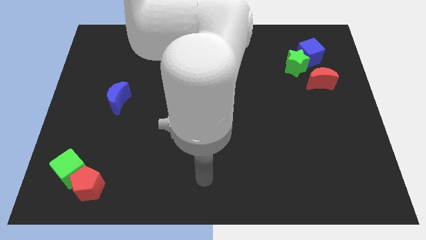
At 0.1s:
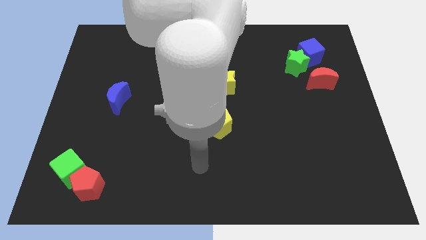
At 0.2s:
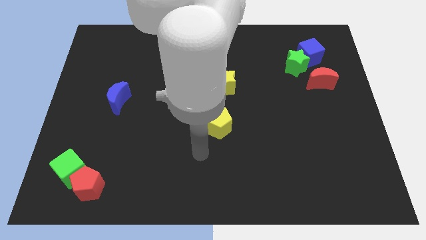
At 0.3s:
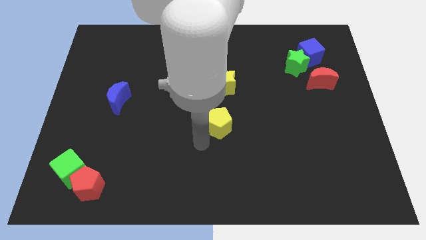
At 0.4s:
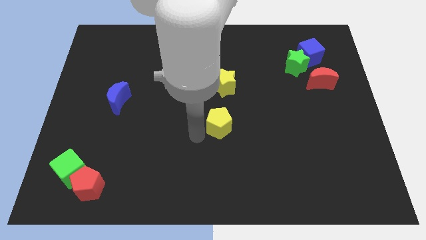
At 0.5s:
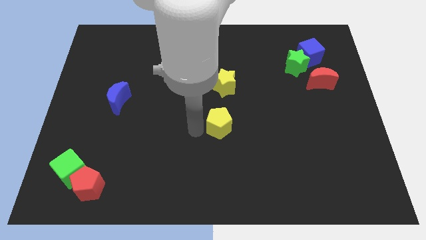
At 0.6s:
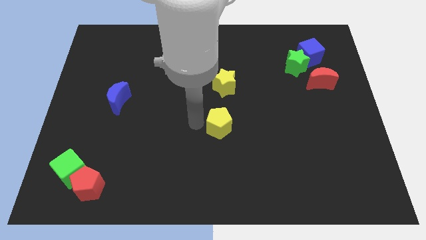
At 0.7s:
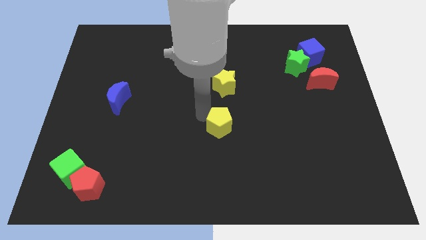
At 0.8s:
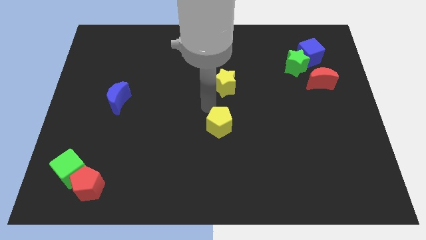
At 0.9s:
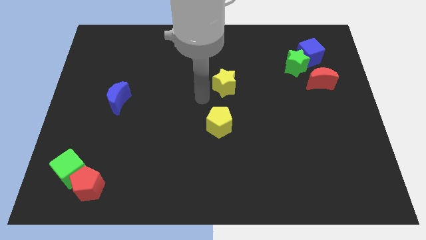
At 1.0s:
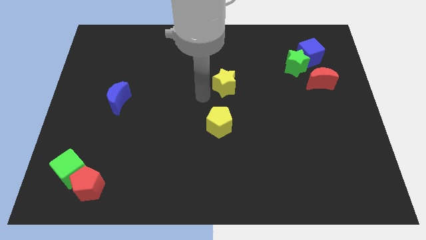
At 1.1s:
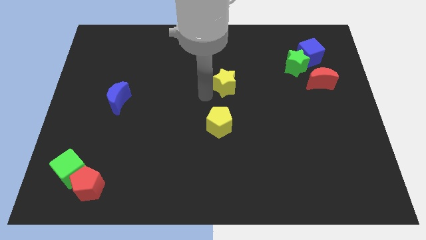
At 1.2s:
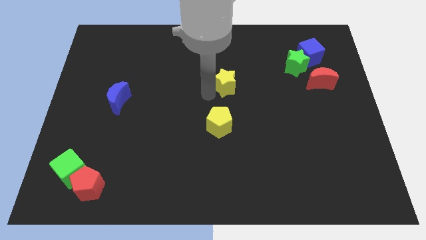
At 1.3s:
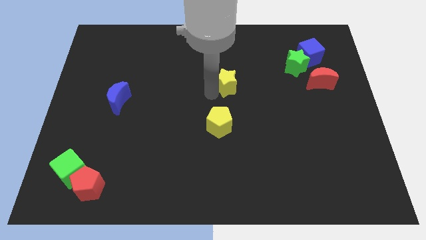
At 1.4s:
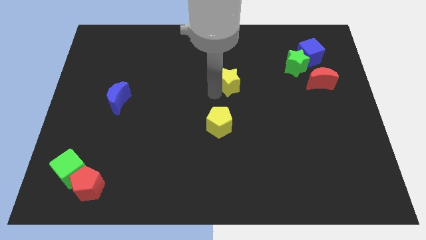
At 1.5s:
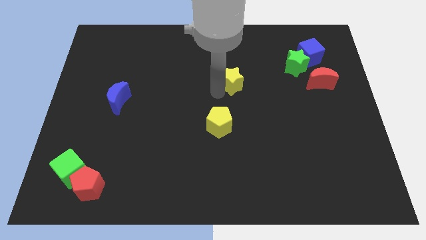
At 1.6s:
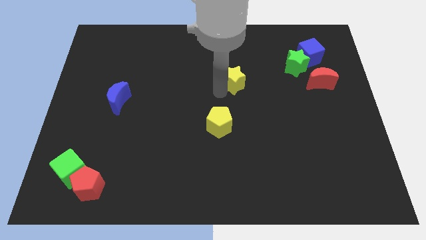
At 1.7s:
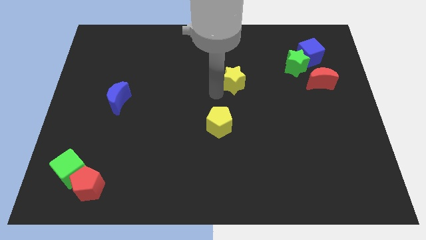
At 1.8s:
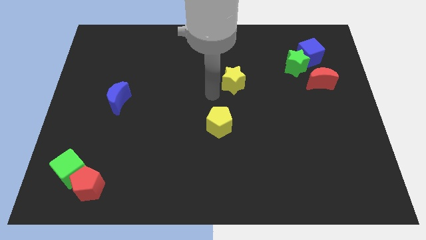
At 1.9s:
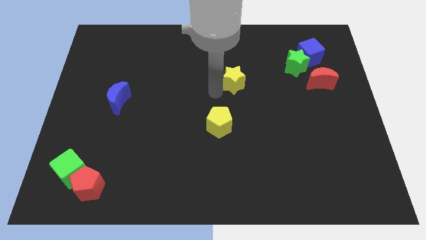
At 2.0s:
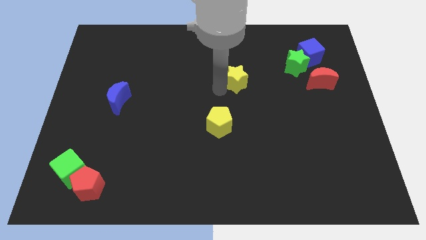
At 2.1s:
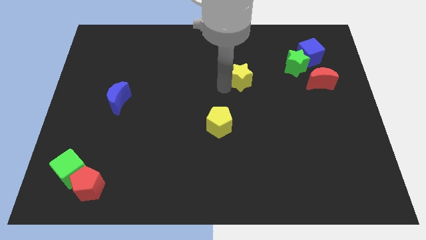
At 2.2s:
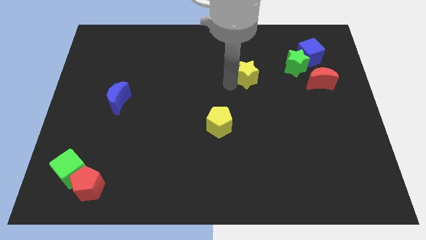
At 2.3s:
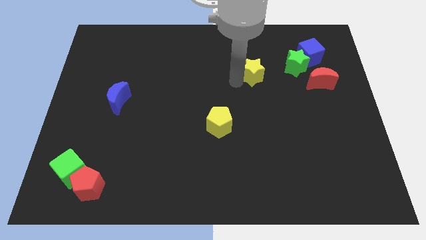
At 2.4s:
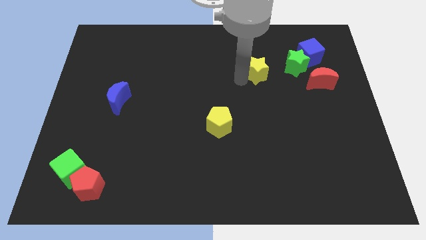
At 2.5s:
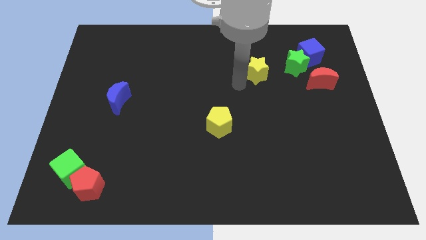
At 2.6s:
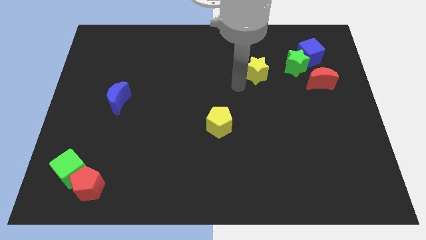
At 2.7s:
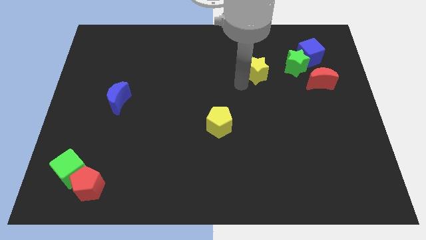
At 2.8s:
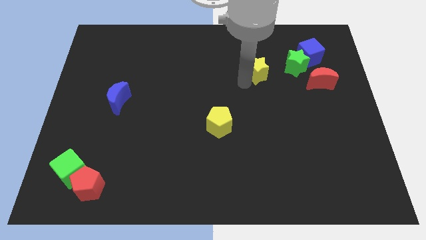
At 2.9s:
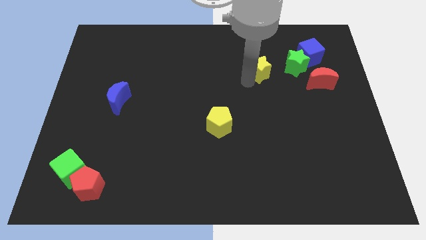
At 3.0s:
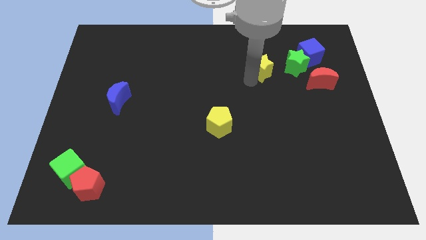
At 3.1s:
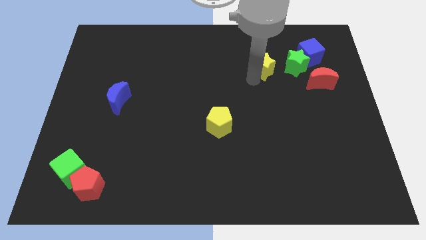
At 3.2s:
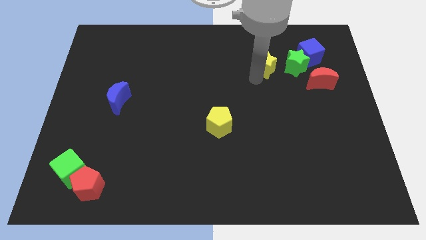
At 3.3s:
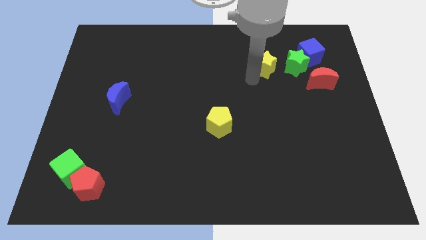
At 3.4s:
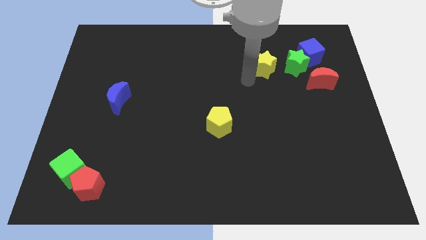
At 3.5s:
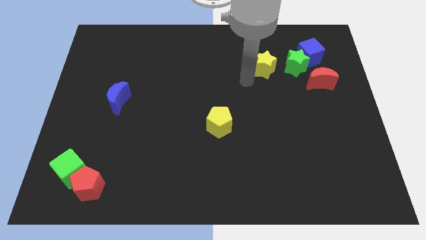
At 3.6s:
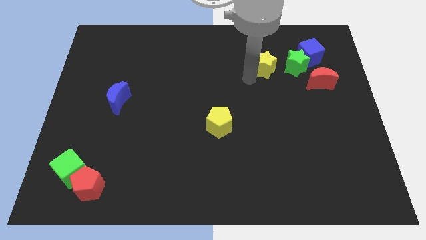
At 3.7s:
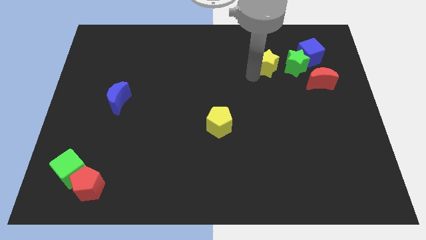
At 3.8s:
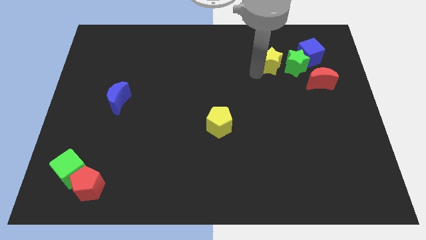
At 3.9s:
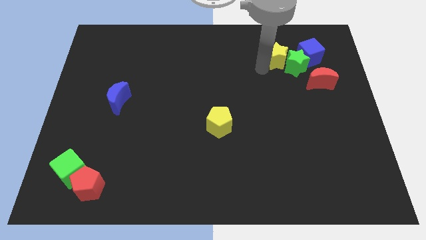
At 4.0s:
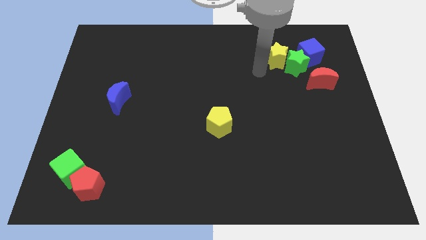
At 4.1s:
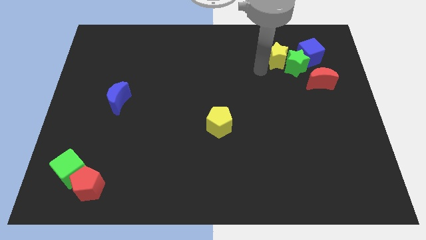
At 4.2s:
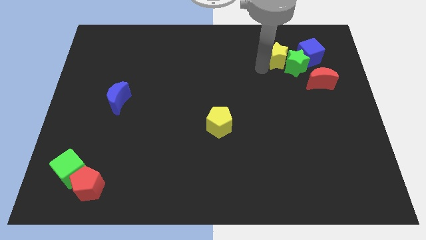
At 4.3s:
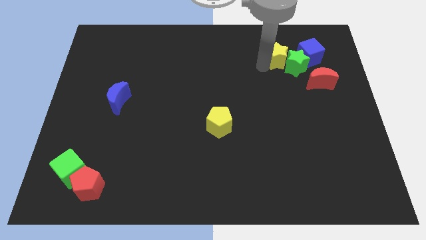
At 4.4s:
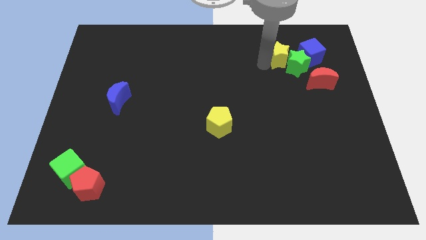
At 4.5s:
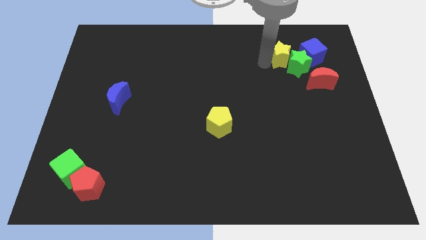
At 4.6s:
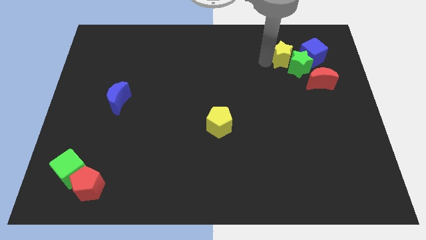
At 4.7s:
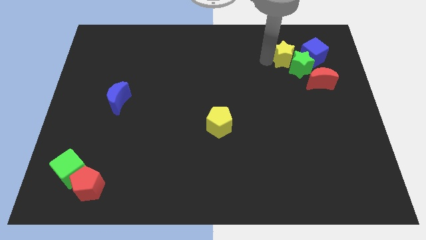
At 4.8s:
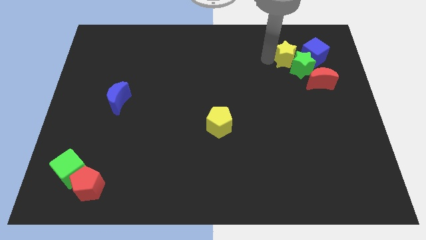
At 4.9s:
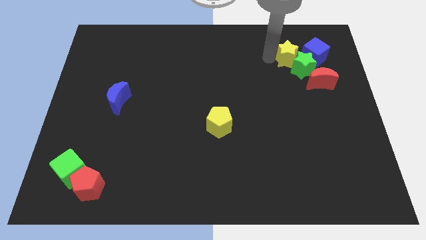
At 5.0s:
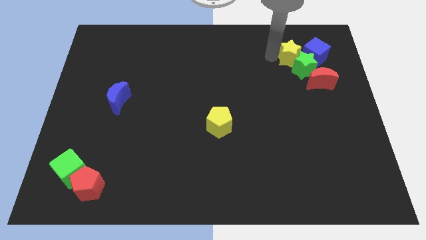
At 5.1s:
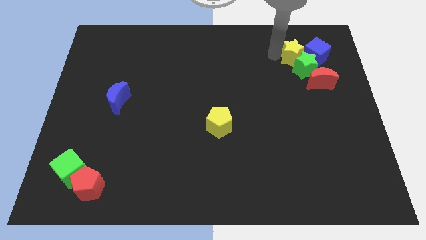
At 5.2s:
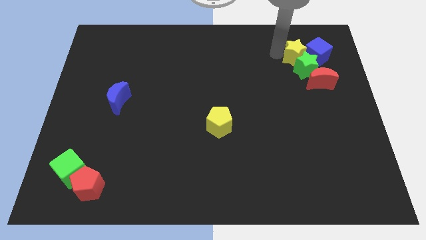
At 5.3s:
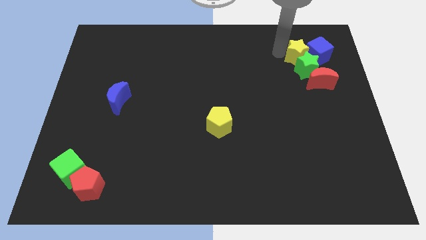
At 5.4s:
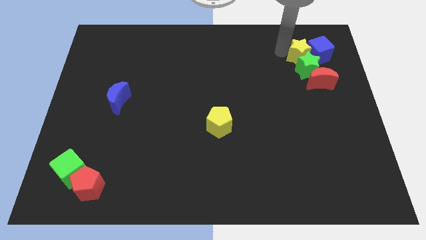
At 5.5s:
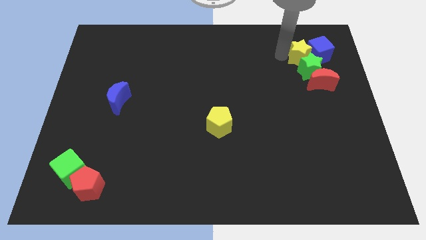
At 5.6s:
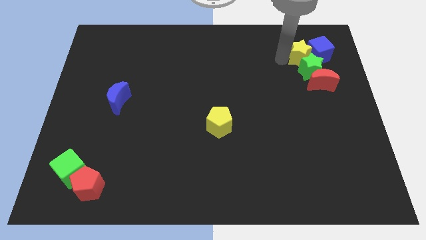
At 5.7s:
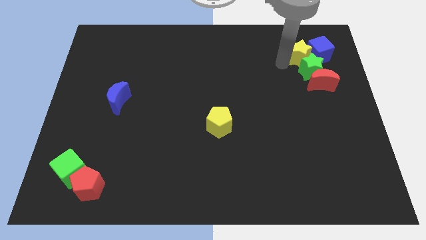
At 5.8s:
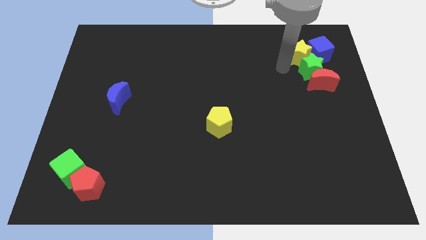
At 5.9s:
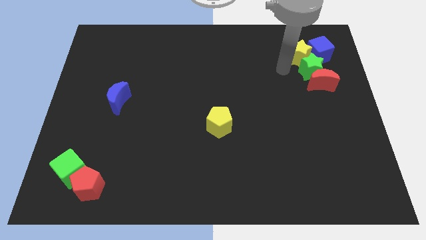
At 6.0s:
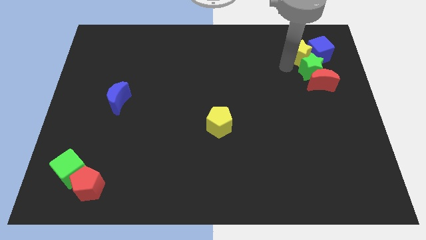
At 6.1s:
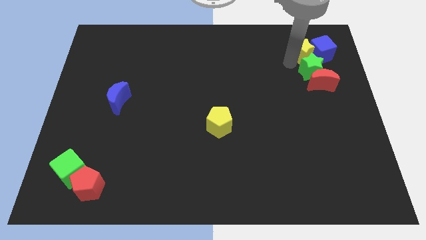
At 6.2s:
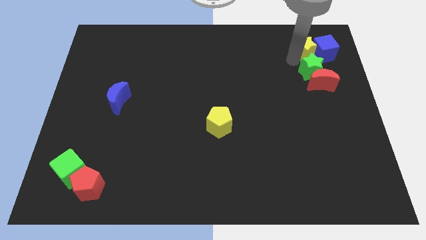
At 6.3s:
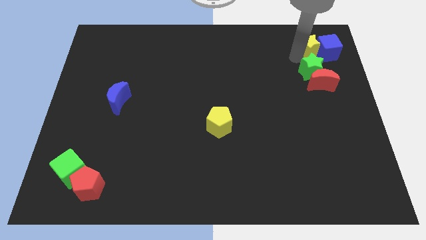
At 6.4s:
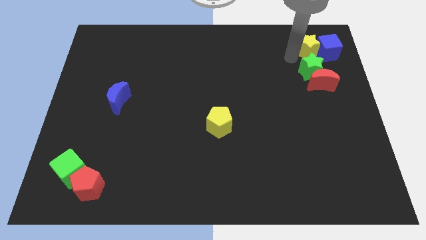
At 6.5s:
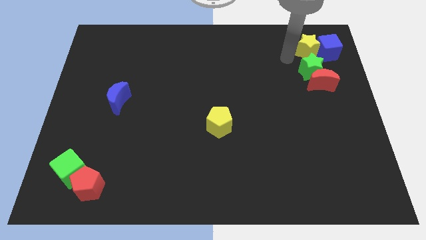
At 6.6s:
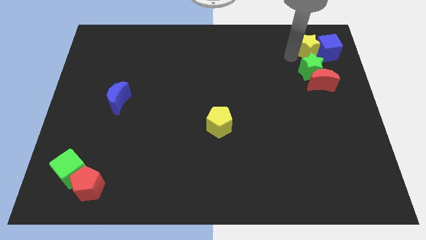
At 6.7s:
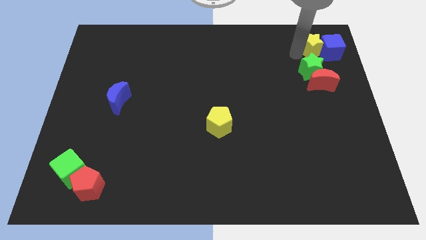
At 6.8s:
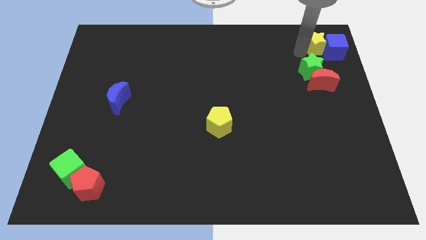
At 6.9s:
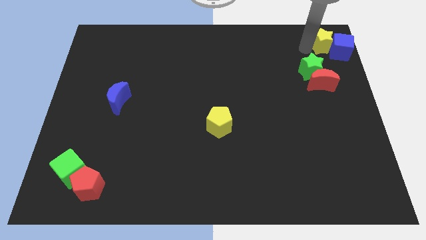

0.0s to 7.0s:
push the yellow star to the top right
